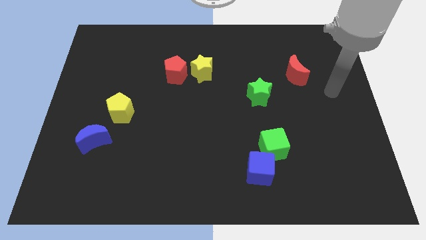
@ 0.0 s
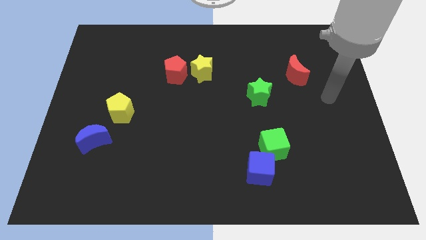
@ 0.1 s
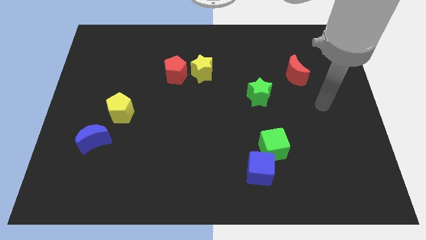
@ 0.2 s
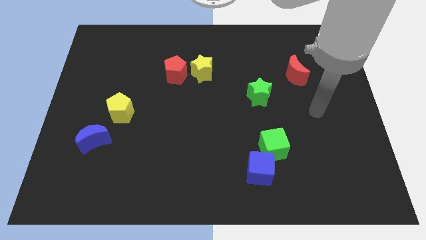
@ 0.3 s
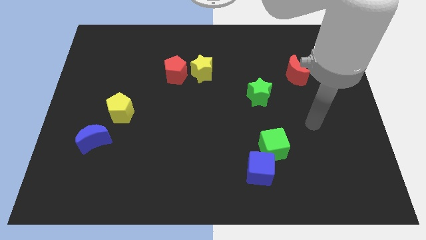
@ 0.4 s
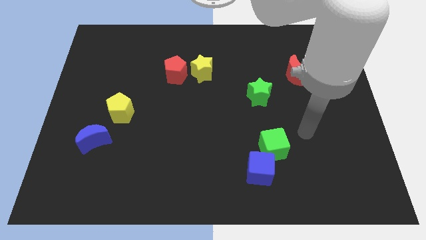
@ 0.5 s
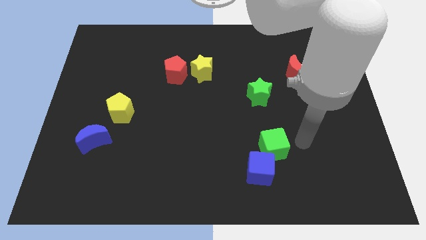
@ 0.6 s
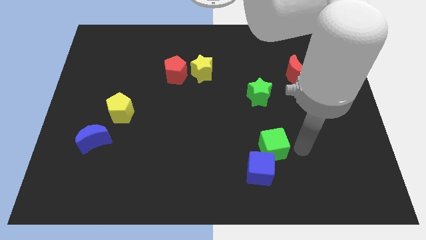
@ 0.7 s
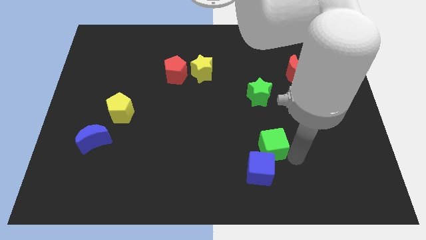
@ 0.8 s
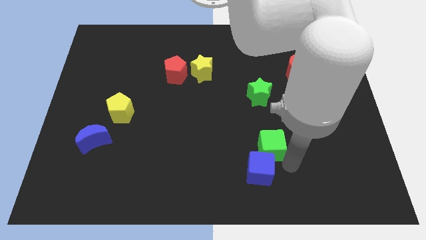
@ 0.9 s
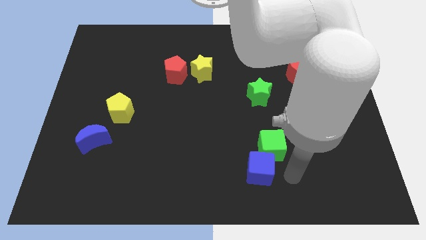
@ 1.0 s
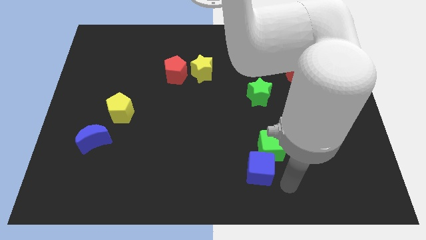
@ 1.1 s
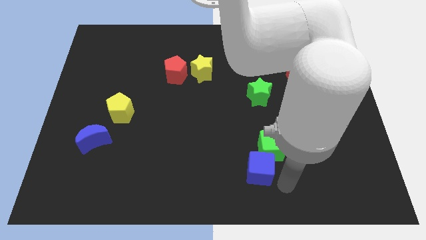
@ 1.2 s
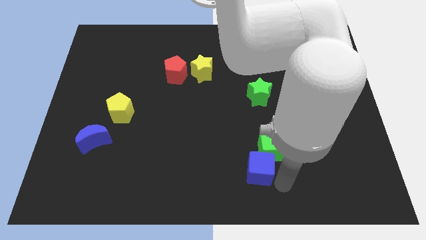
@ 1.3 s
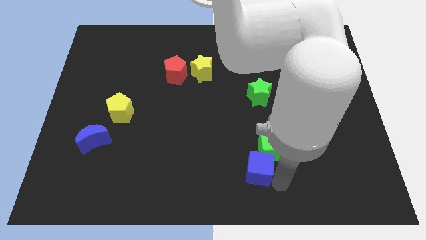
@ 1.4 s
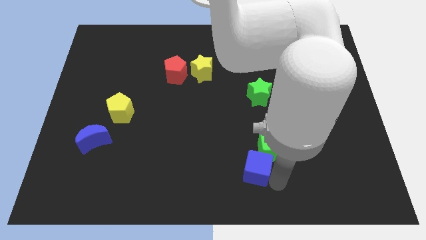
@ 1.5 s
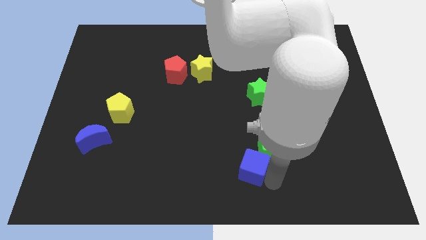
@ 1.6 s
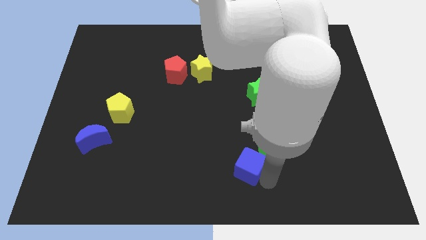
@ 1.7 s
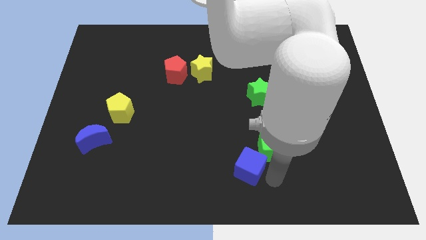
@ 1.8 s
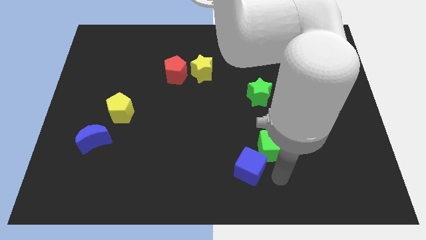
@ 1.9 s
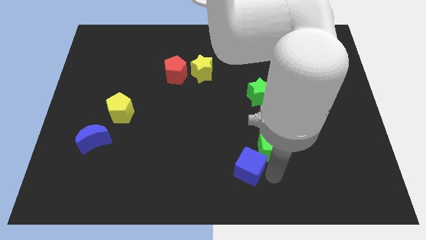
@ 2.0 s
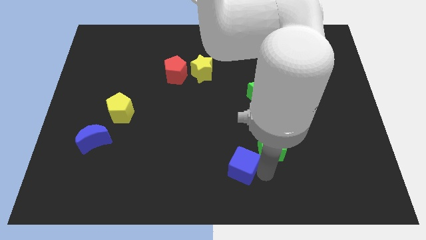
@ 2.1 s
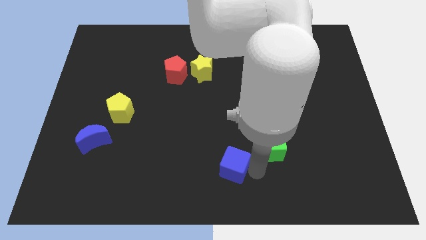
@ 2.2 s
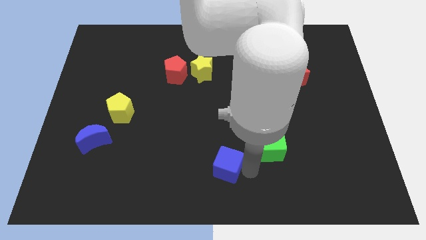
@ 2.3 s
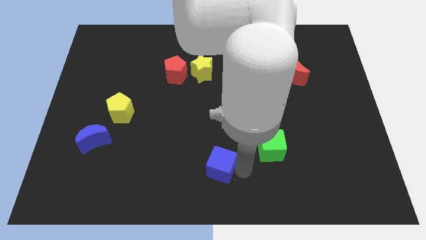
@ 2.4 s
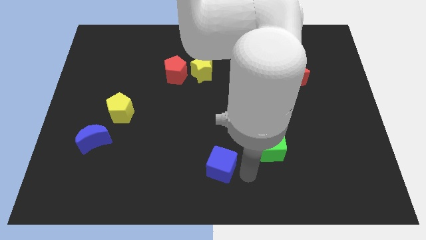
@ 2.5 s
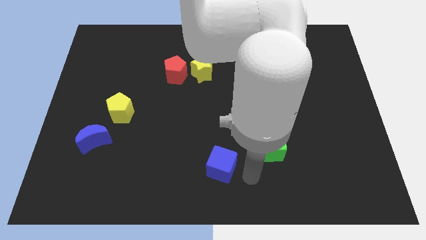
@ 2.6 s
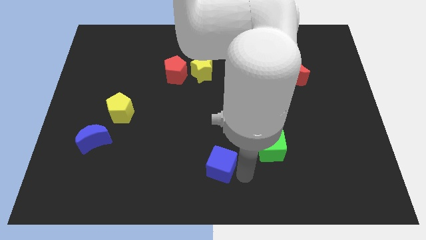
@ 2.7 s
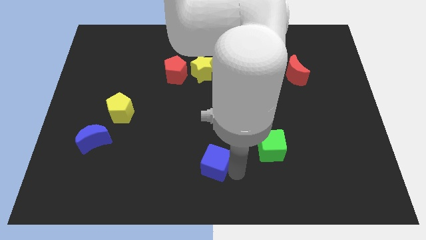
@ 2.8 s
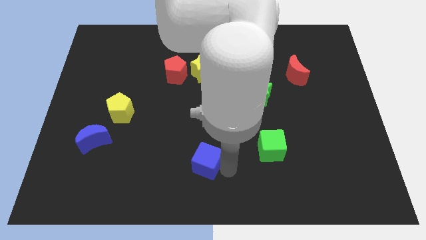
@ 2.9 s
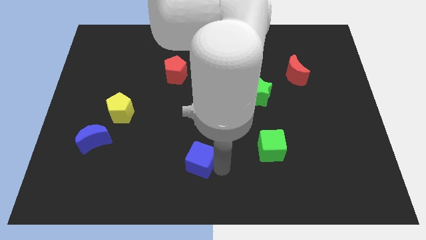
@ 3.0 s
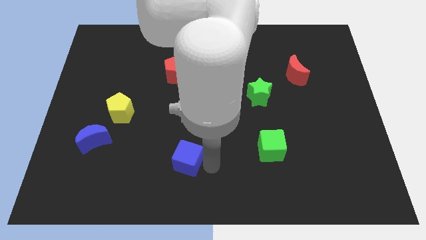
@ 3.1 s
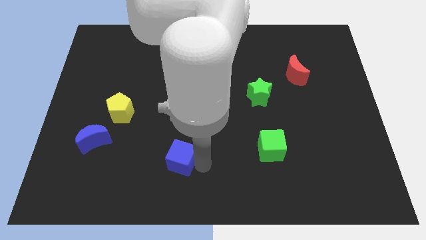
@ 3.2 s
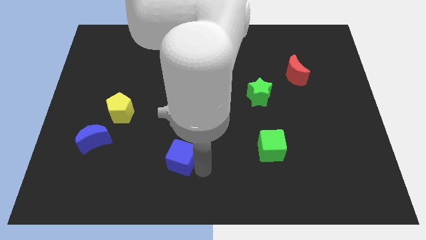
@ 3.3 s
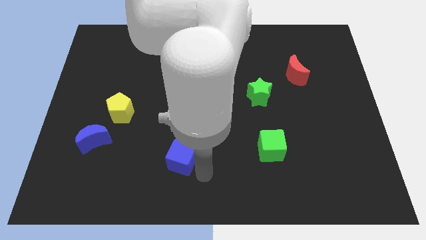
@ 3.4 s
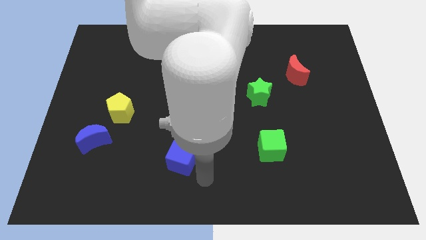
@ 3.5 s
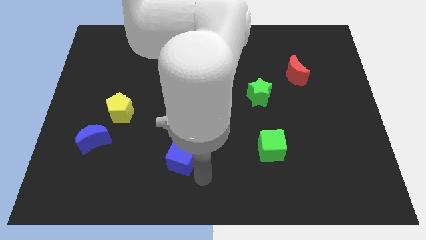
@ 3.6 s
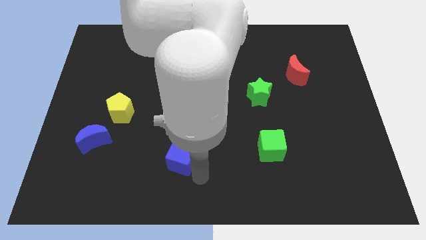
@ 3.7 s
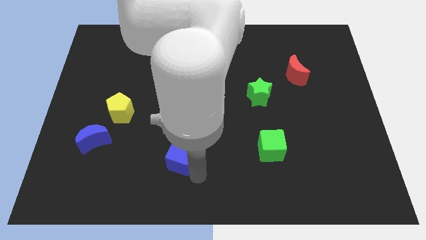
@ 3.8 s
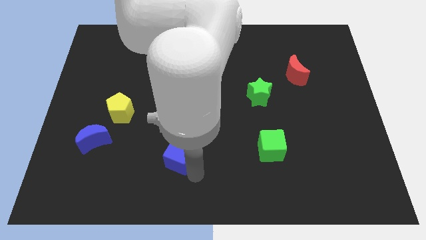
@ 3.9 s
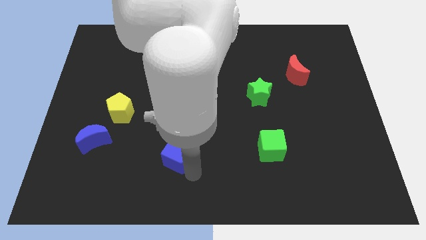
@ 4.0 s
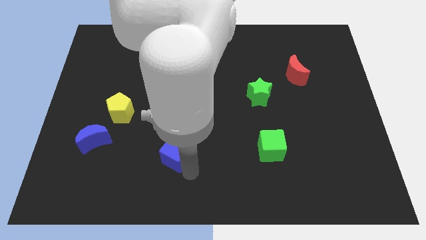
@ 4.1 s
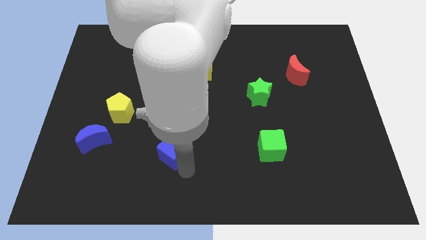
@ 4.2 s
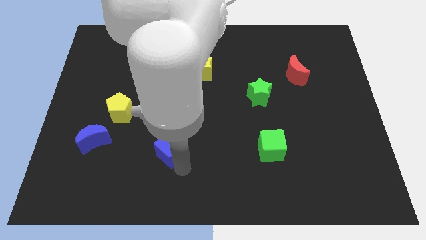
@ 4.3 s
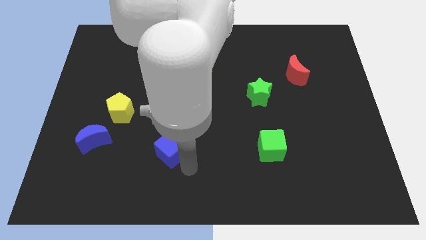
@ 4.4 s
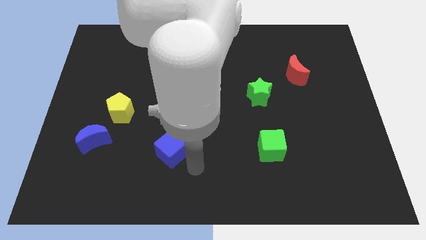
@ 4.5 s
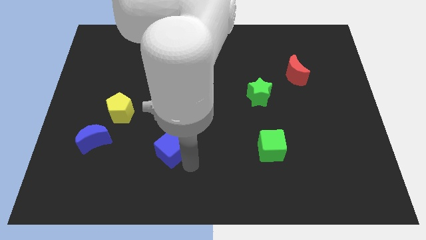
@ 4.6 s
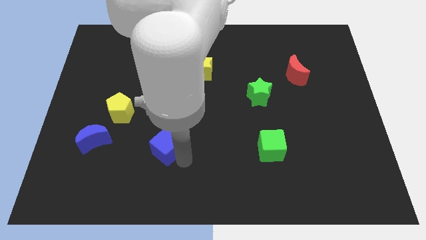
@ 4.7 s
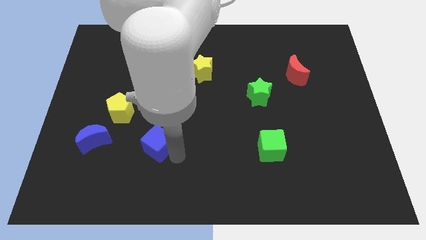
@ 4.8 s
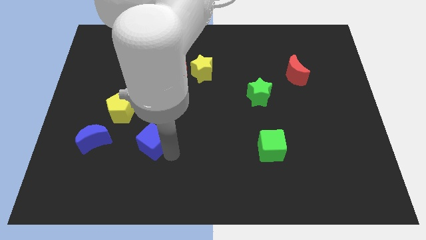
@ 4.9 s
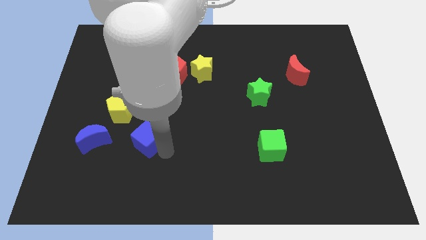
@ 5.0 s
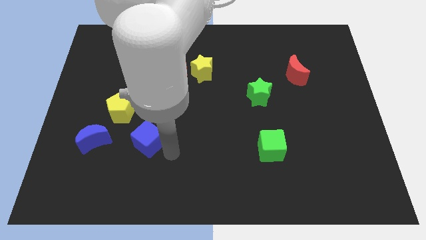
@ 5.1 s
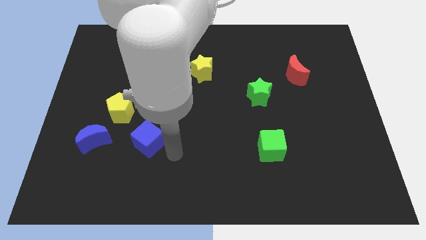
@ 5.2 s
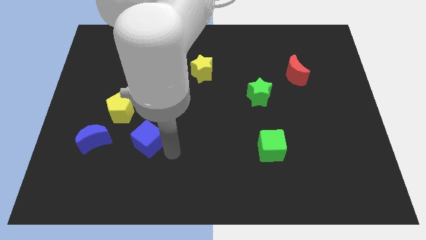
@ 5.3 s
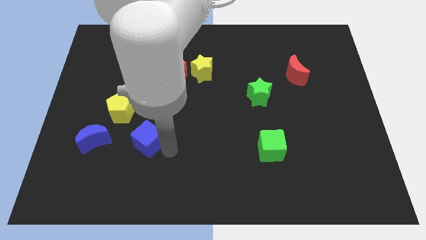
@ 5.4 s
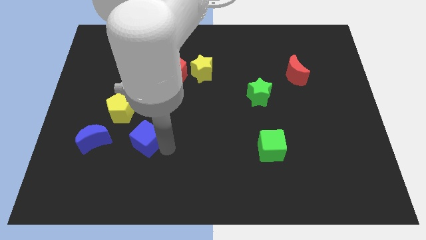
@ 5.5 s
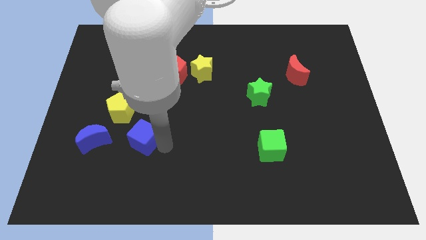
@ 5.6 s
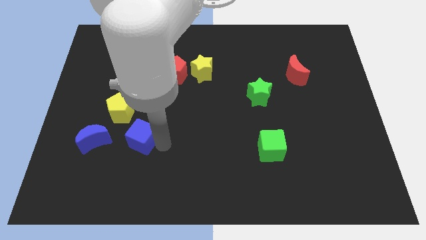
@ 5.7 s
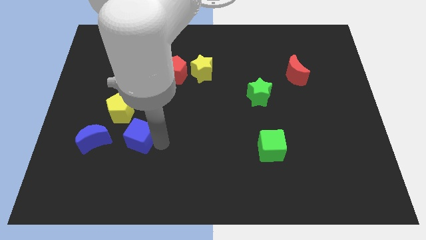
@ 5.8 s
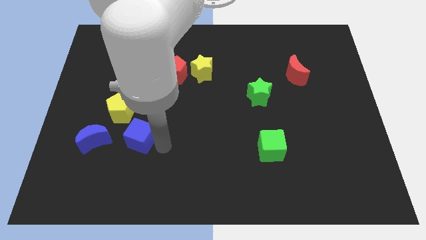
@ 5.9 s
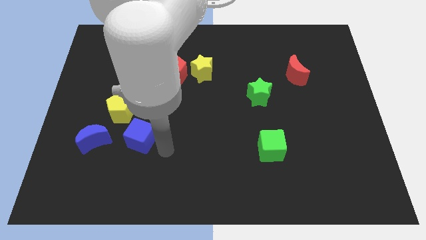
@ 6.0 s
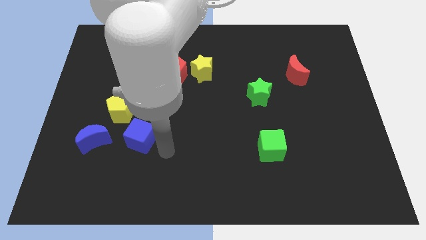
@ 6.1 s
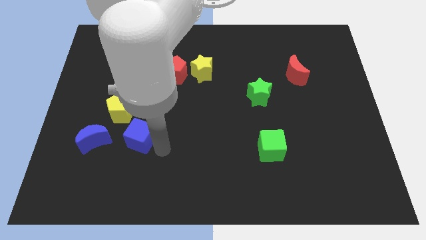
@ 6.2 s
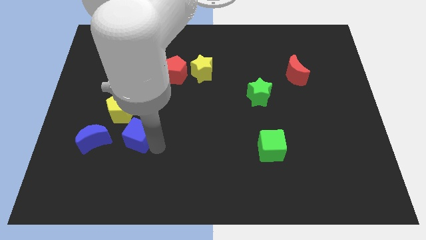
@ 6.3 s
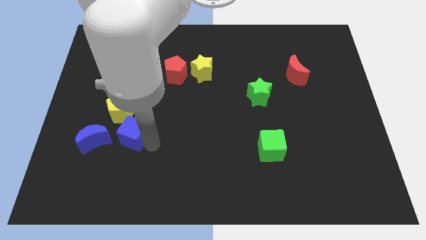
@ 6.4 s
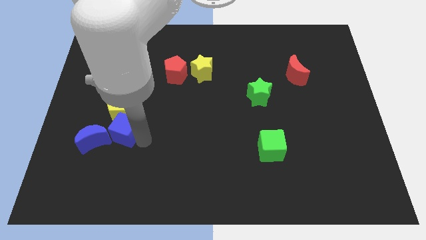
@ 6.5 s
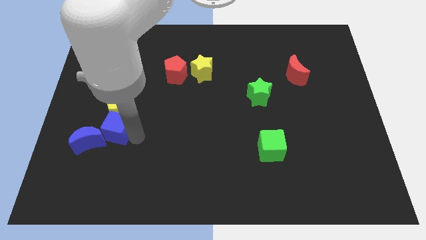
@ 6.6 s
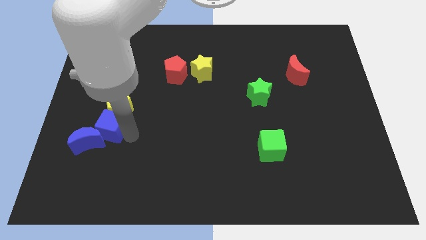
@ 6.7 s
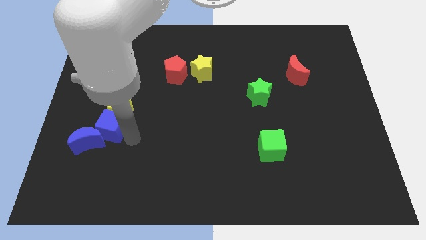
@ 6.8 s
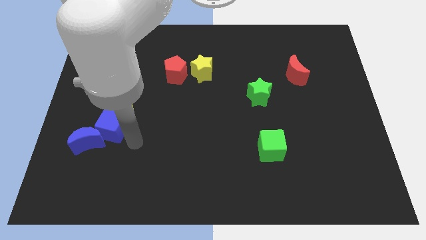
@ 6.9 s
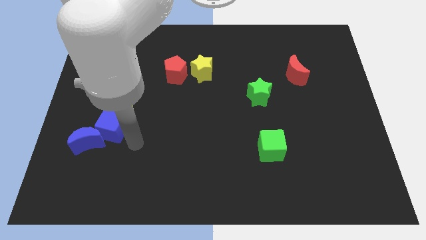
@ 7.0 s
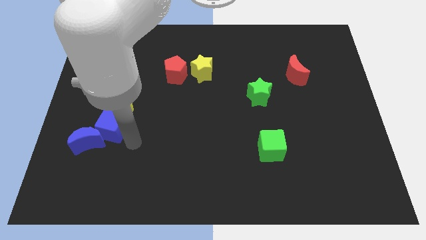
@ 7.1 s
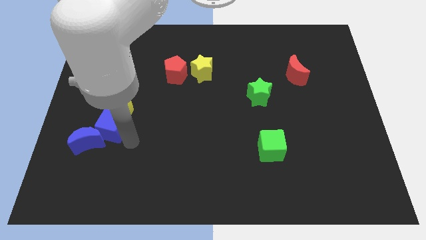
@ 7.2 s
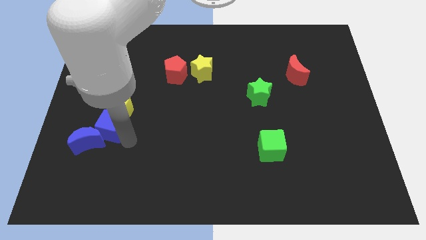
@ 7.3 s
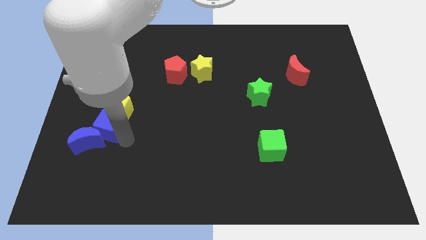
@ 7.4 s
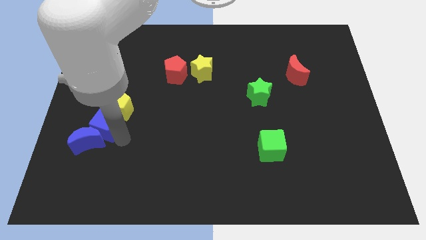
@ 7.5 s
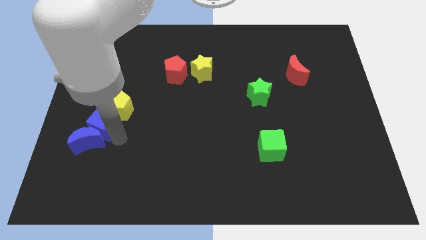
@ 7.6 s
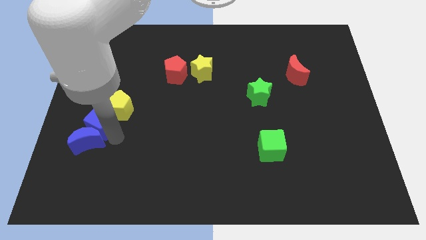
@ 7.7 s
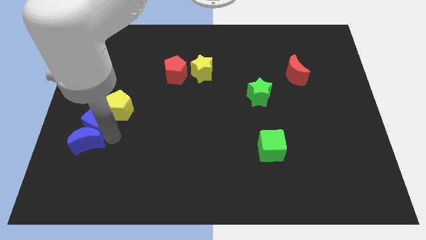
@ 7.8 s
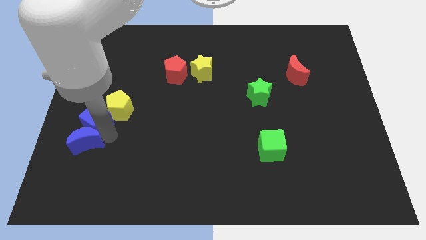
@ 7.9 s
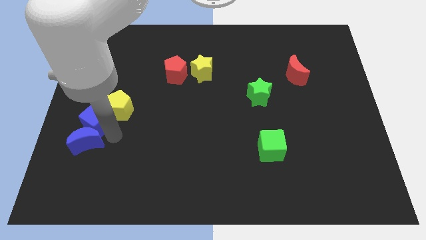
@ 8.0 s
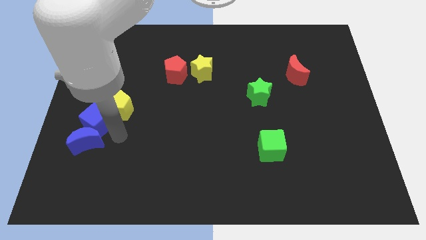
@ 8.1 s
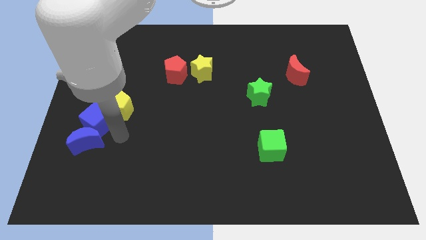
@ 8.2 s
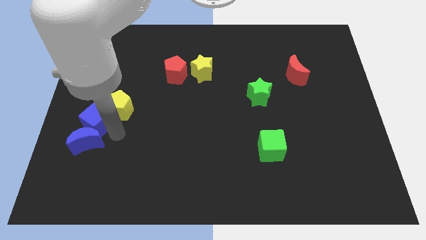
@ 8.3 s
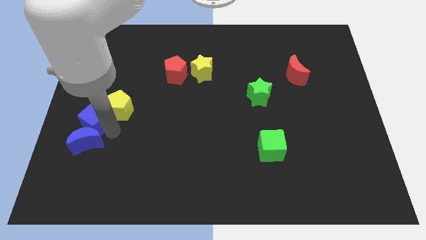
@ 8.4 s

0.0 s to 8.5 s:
push the blue cube to the left side of the board
